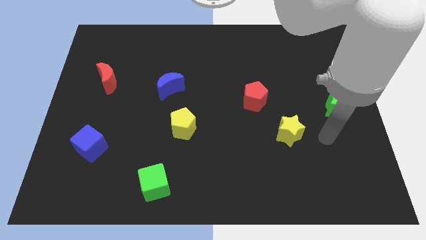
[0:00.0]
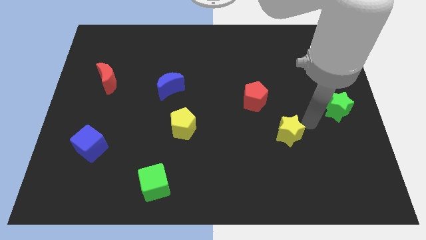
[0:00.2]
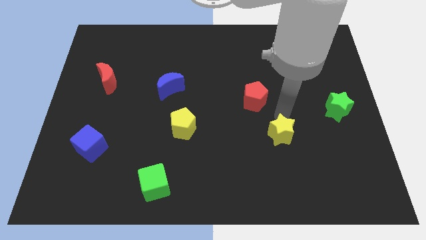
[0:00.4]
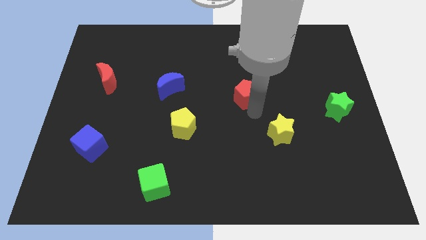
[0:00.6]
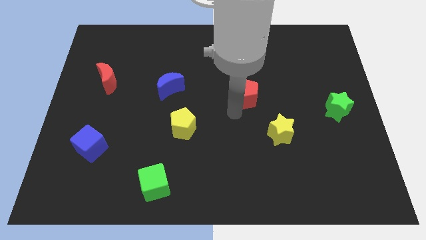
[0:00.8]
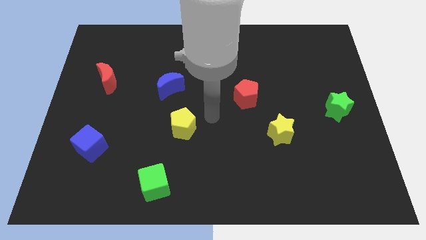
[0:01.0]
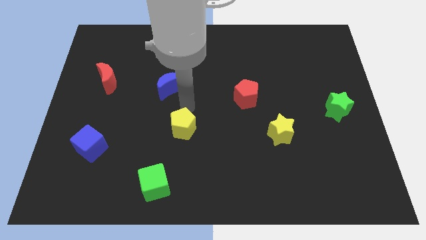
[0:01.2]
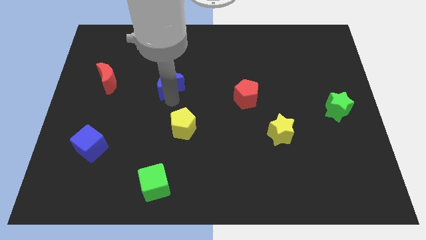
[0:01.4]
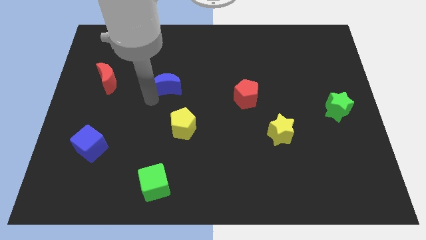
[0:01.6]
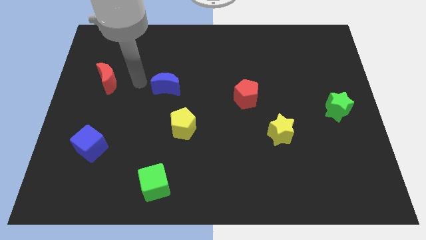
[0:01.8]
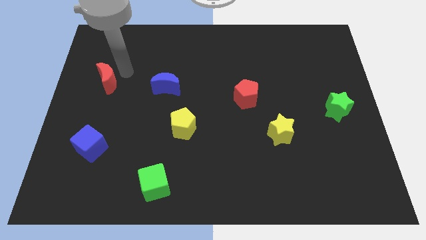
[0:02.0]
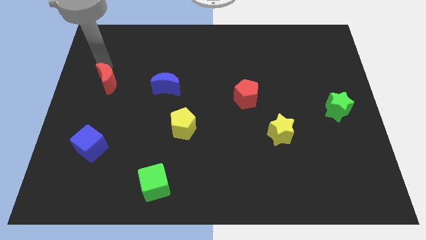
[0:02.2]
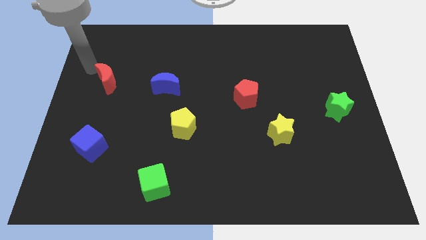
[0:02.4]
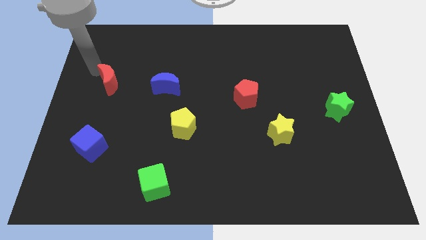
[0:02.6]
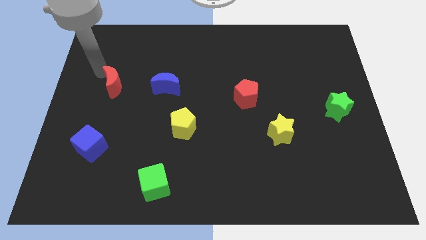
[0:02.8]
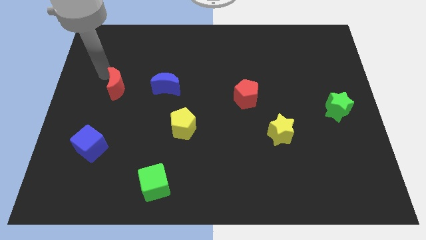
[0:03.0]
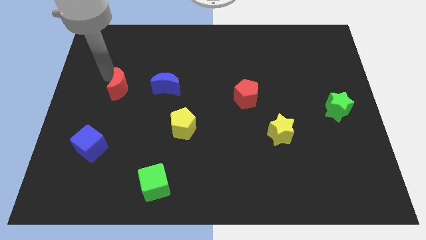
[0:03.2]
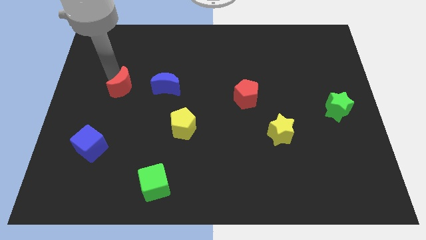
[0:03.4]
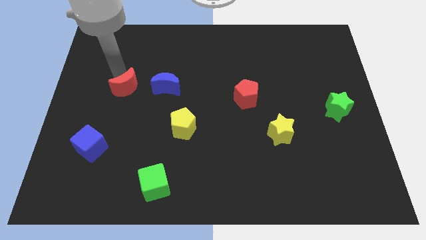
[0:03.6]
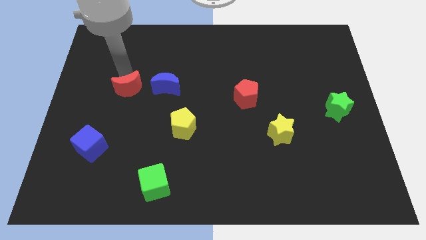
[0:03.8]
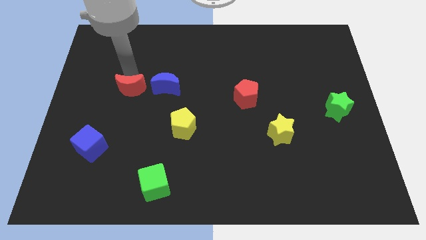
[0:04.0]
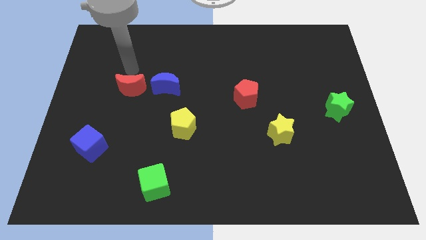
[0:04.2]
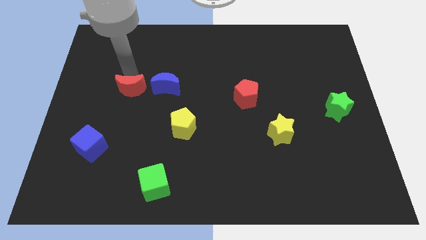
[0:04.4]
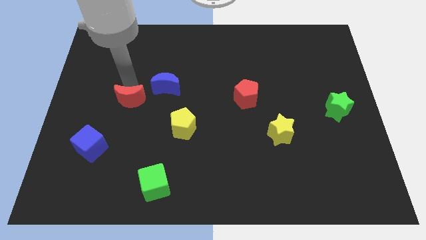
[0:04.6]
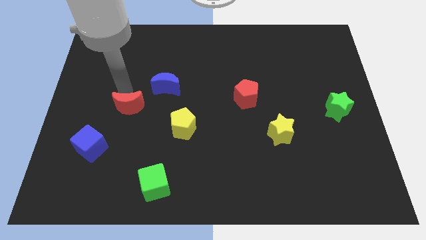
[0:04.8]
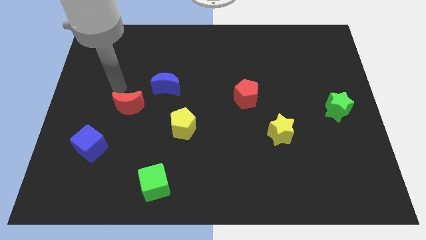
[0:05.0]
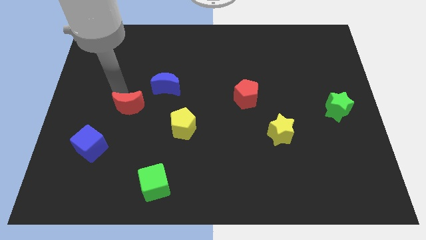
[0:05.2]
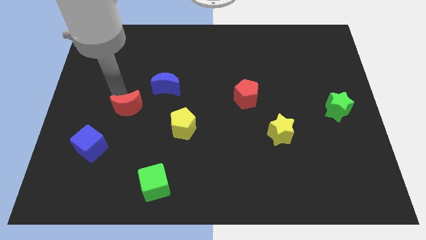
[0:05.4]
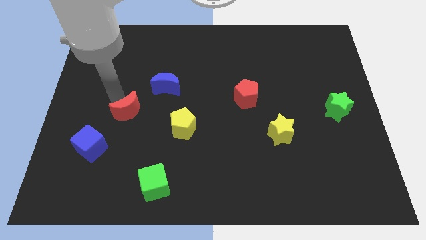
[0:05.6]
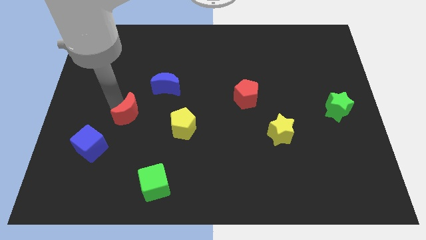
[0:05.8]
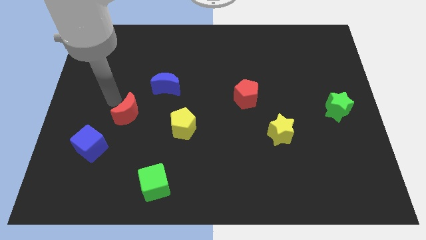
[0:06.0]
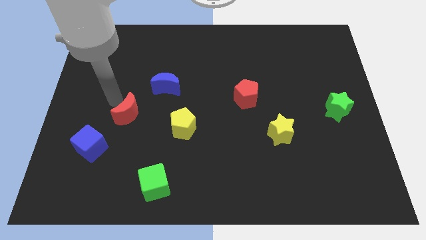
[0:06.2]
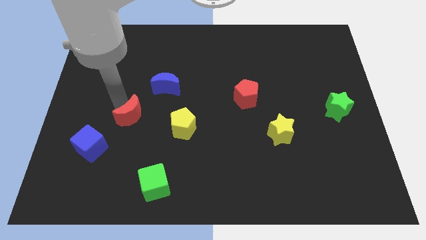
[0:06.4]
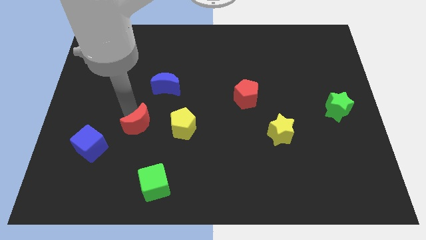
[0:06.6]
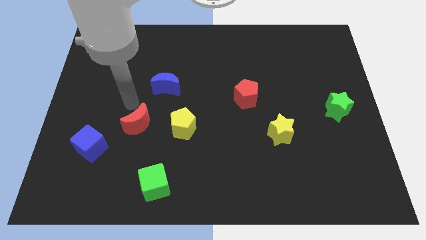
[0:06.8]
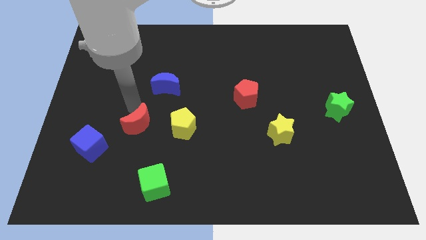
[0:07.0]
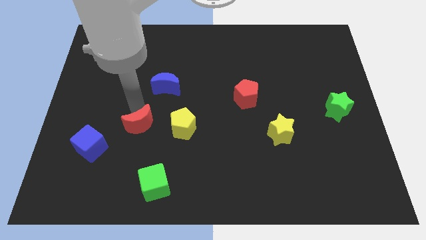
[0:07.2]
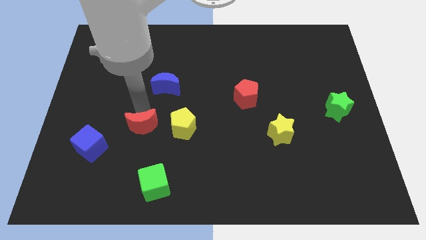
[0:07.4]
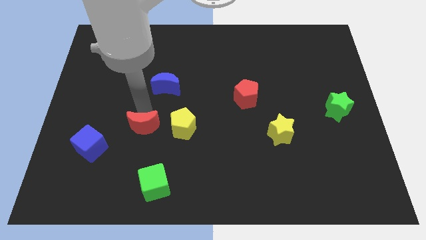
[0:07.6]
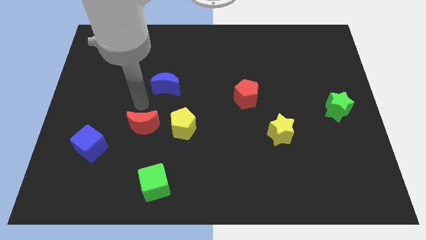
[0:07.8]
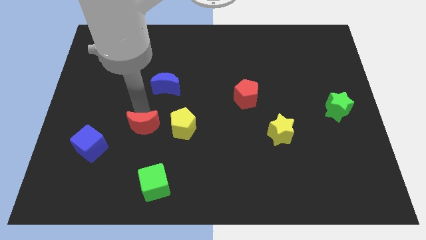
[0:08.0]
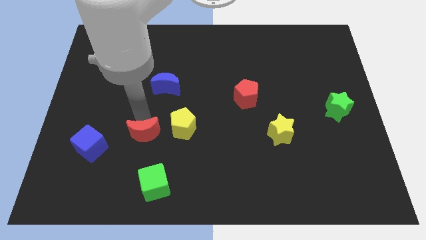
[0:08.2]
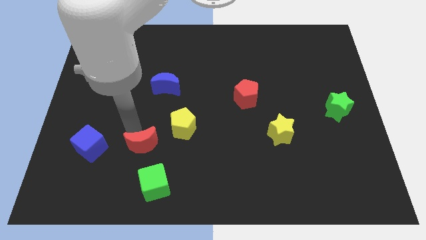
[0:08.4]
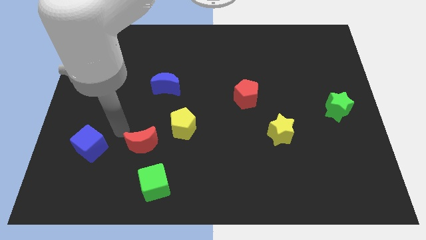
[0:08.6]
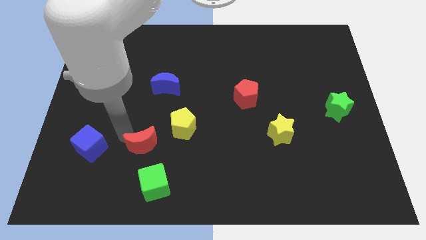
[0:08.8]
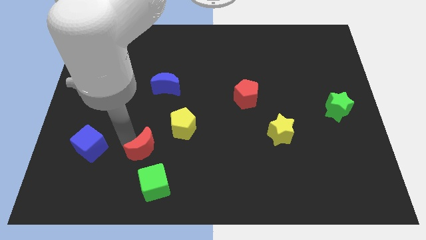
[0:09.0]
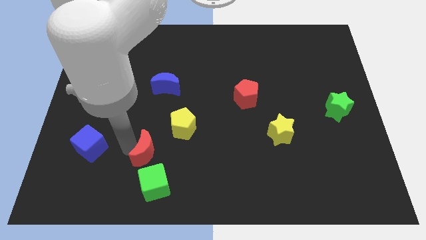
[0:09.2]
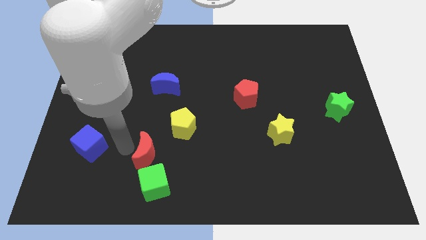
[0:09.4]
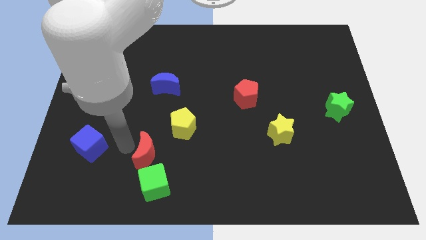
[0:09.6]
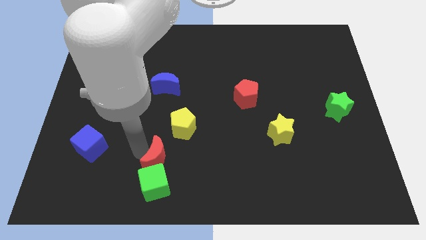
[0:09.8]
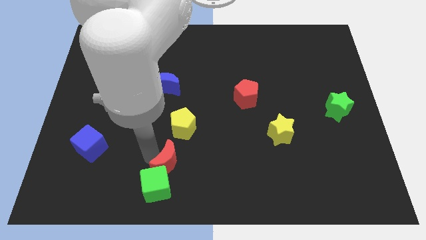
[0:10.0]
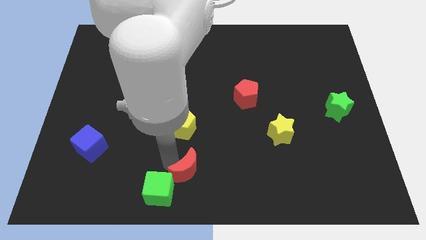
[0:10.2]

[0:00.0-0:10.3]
move the red moon right of the green cube

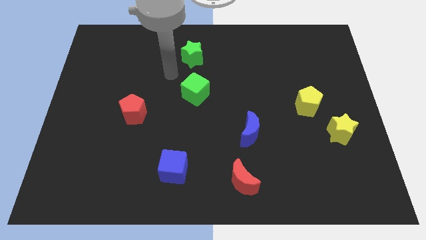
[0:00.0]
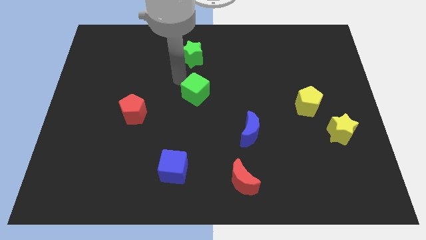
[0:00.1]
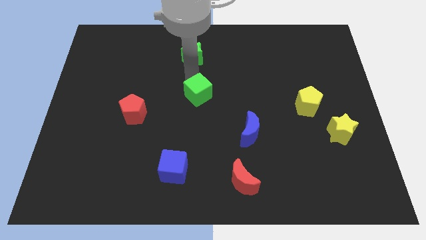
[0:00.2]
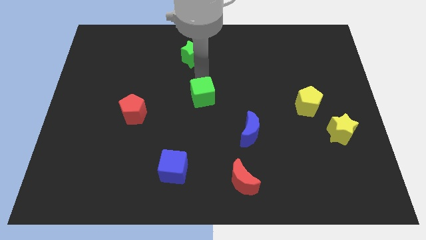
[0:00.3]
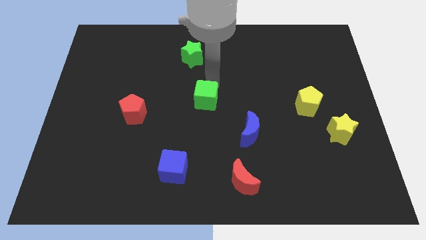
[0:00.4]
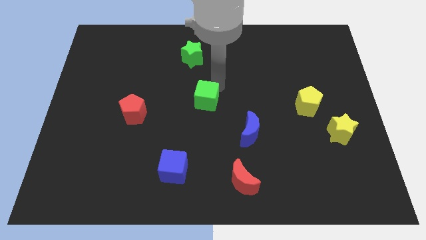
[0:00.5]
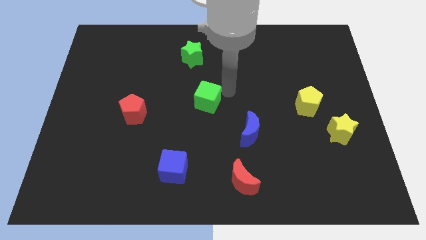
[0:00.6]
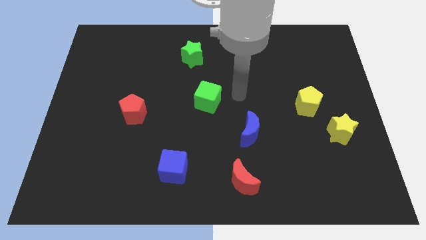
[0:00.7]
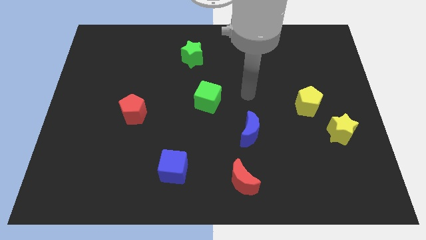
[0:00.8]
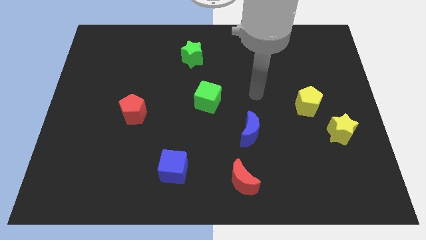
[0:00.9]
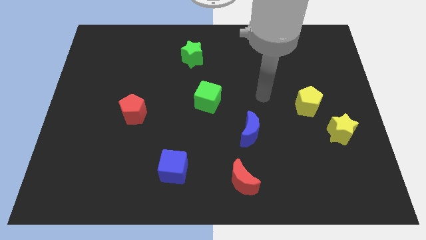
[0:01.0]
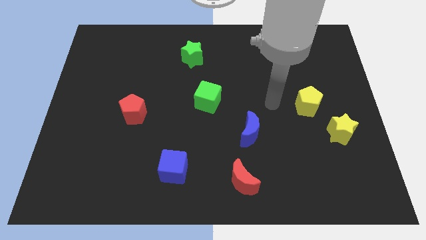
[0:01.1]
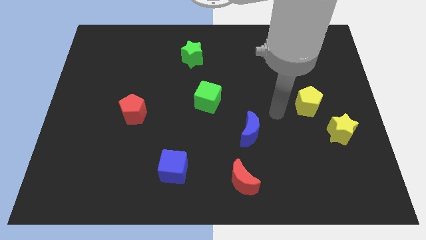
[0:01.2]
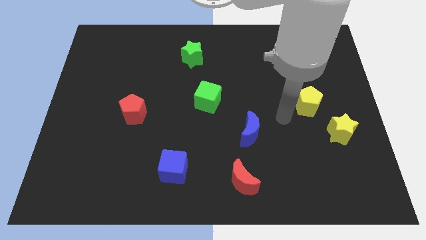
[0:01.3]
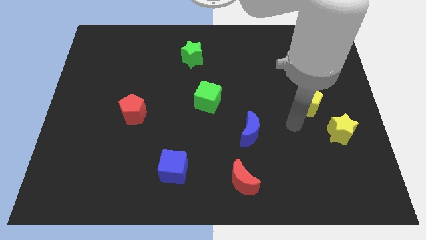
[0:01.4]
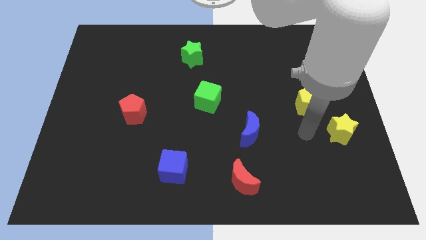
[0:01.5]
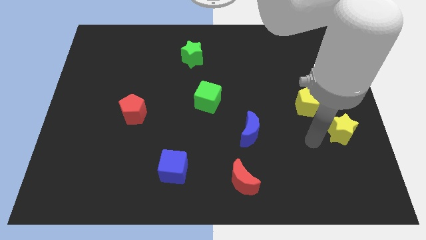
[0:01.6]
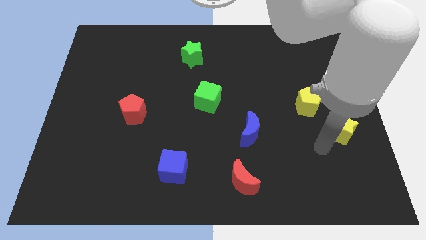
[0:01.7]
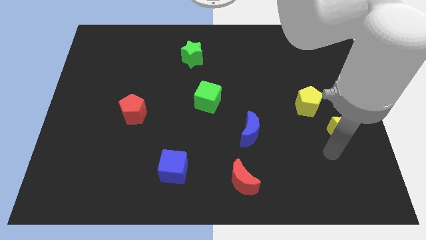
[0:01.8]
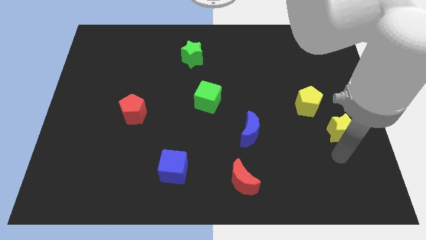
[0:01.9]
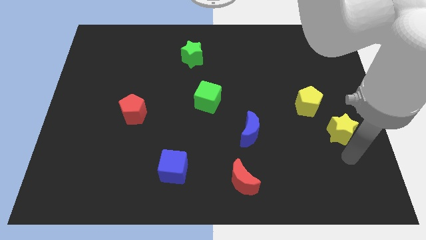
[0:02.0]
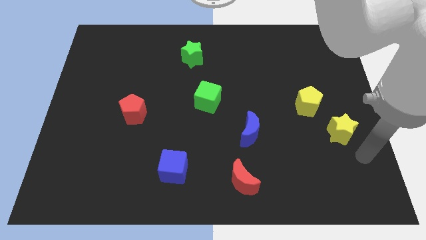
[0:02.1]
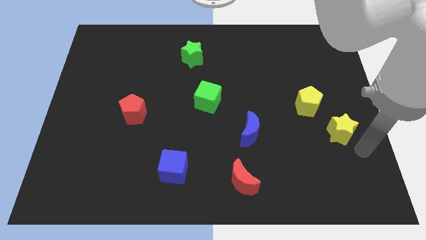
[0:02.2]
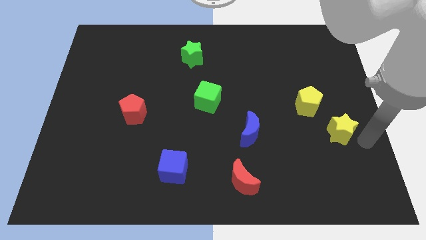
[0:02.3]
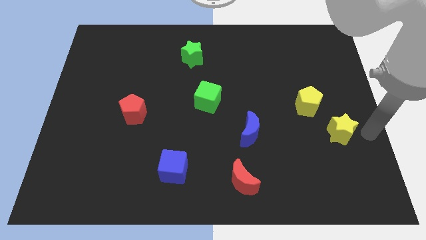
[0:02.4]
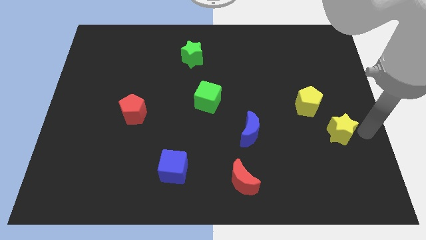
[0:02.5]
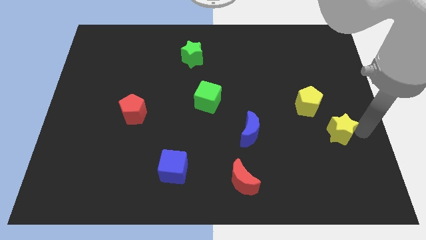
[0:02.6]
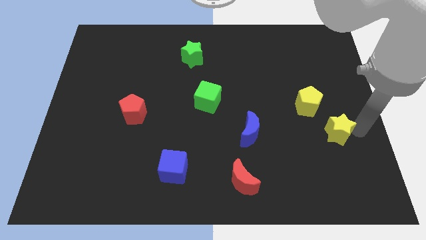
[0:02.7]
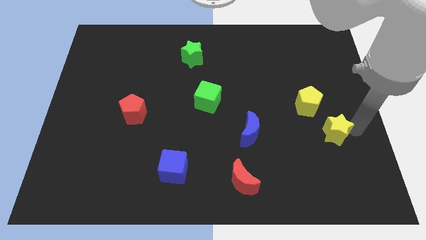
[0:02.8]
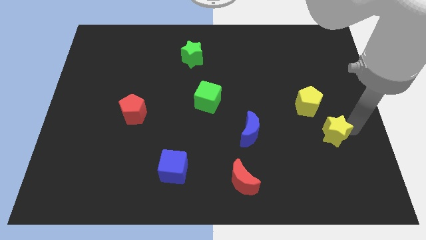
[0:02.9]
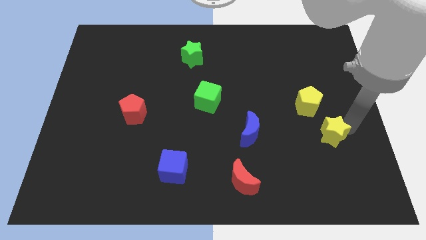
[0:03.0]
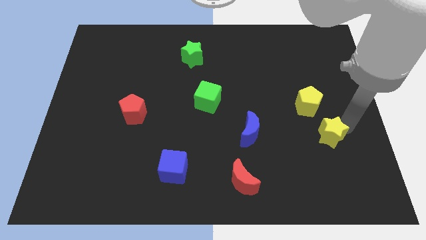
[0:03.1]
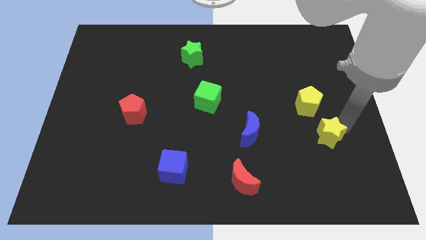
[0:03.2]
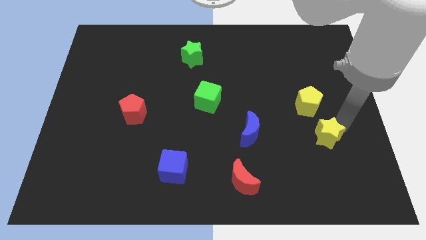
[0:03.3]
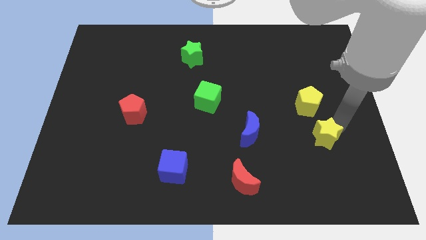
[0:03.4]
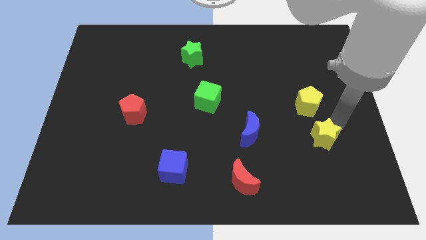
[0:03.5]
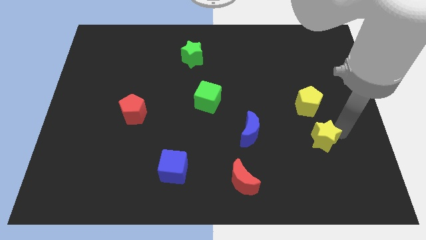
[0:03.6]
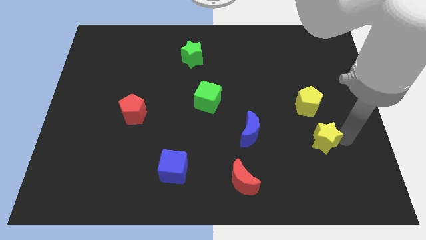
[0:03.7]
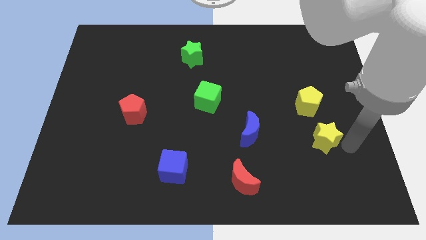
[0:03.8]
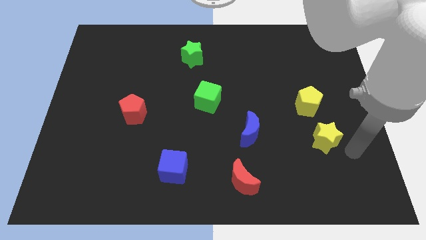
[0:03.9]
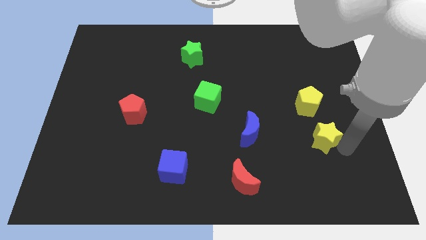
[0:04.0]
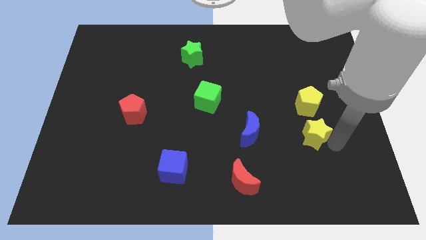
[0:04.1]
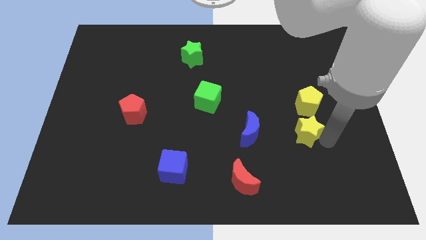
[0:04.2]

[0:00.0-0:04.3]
push the yellow star to the bottom left of the yellow pentagon
